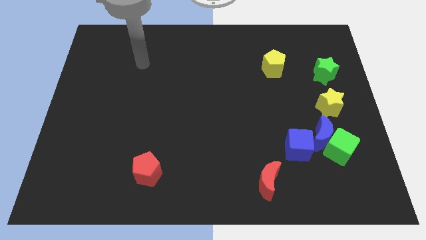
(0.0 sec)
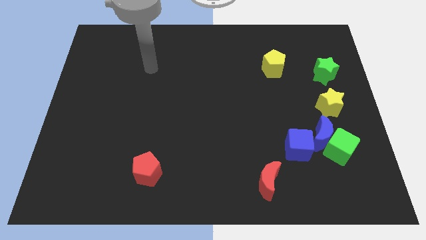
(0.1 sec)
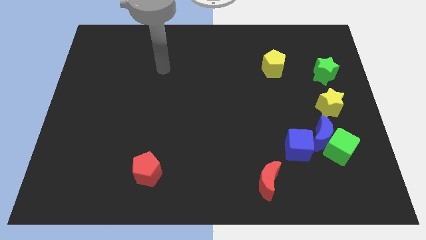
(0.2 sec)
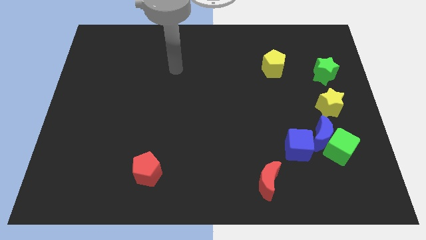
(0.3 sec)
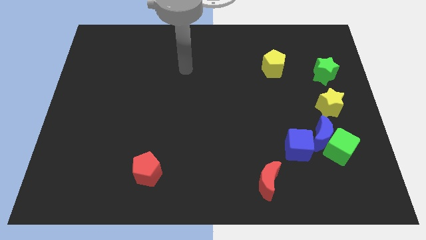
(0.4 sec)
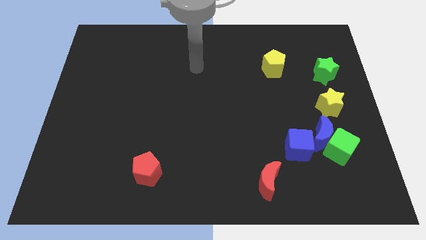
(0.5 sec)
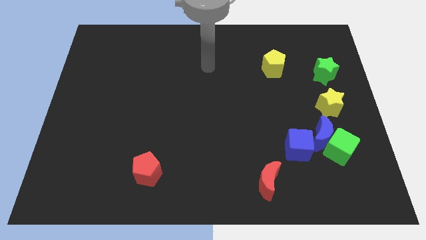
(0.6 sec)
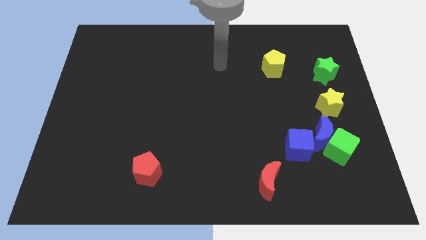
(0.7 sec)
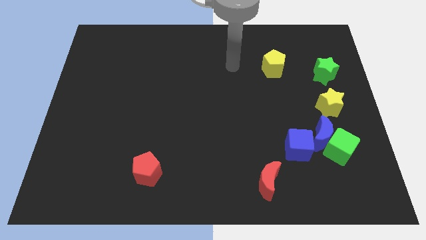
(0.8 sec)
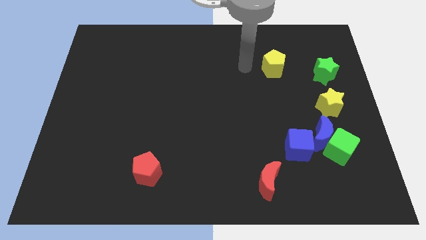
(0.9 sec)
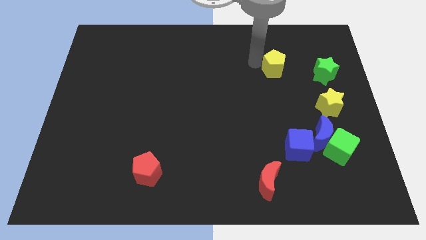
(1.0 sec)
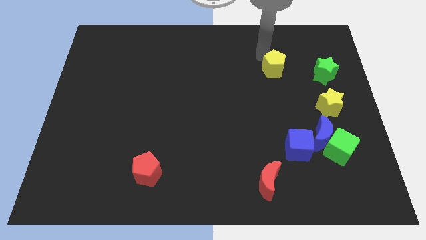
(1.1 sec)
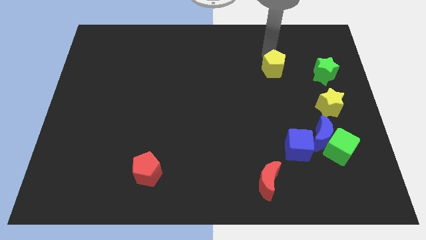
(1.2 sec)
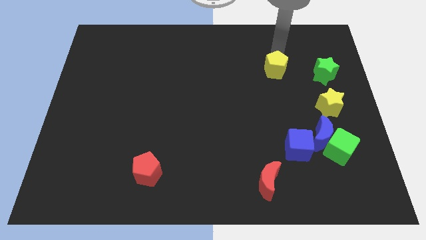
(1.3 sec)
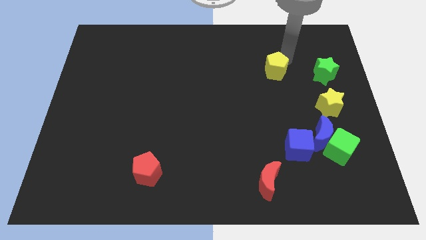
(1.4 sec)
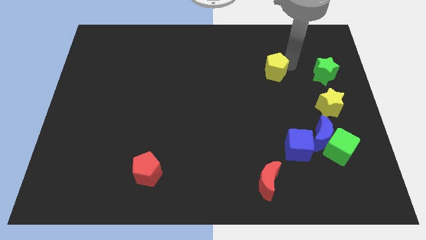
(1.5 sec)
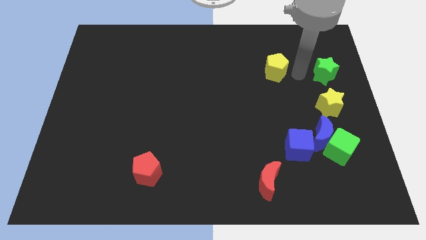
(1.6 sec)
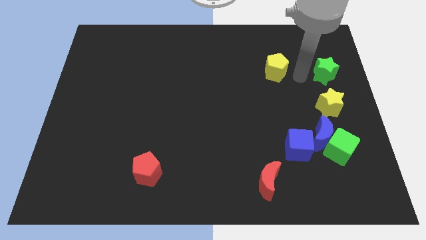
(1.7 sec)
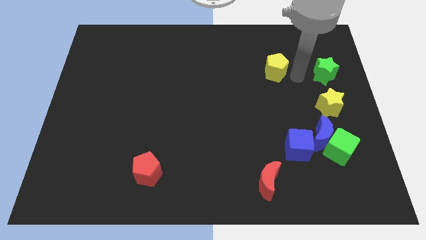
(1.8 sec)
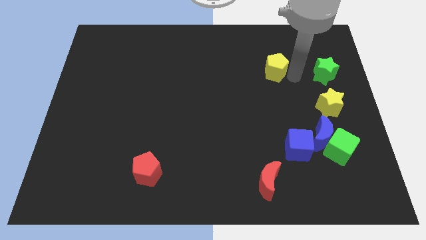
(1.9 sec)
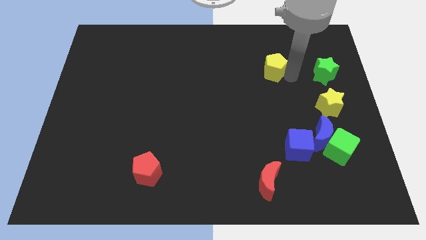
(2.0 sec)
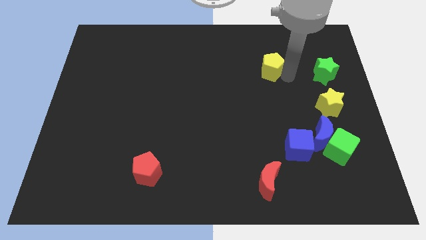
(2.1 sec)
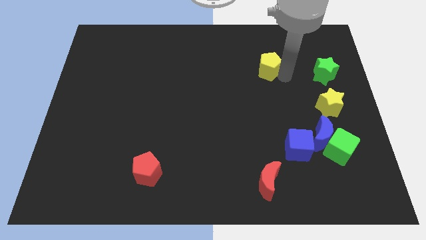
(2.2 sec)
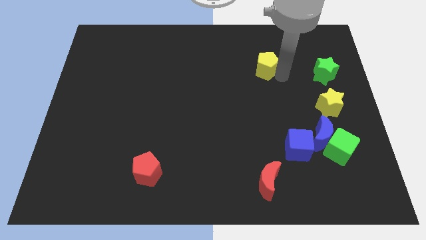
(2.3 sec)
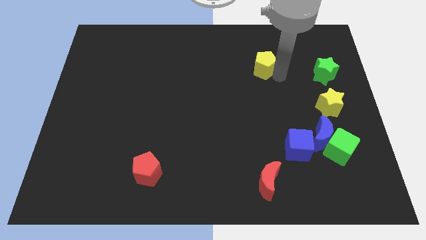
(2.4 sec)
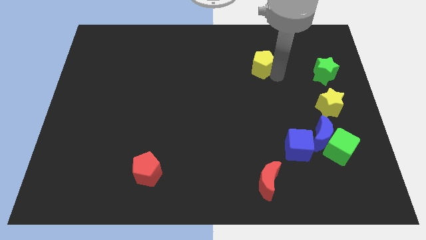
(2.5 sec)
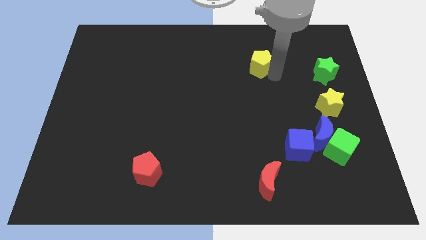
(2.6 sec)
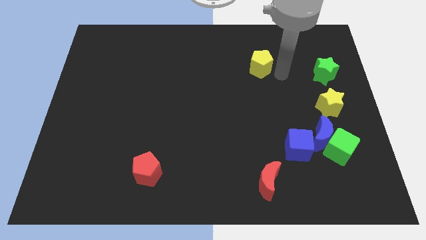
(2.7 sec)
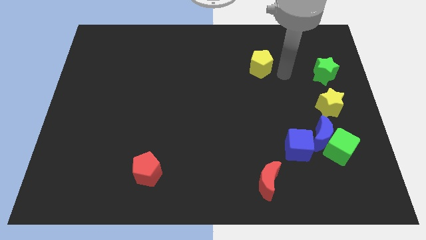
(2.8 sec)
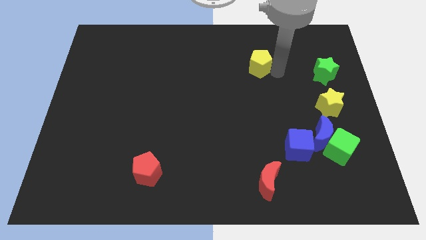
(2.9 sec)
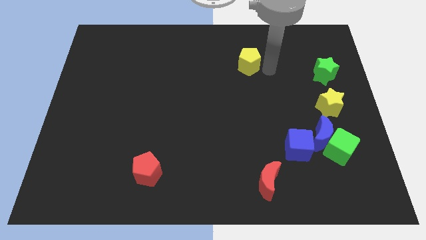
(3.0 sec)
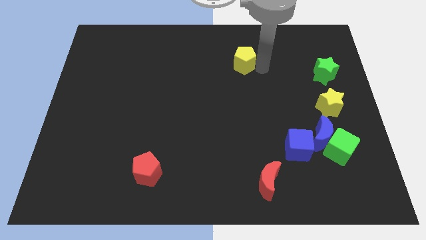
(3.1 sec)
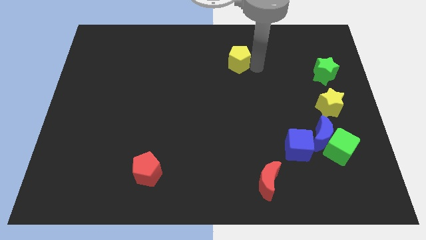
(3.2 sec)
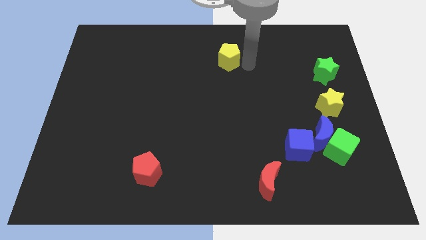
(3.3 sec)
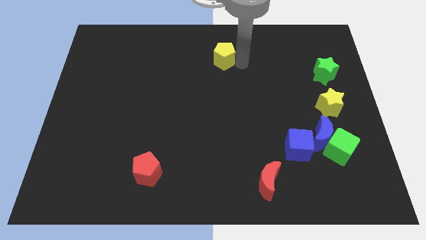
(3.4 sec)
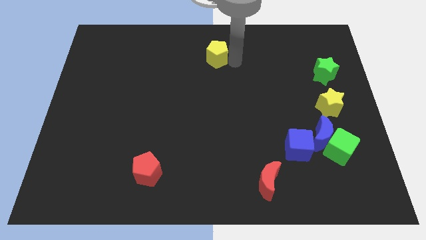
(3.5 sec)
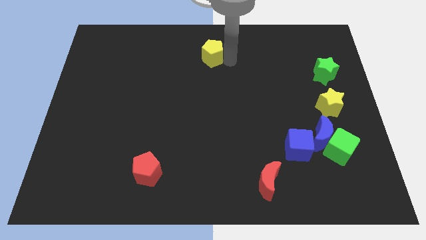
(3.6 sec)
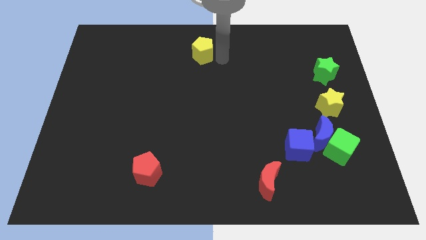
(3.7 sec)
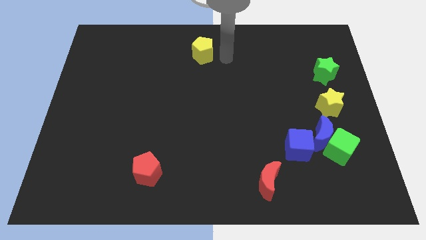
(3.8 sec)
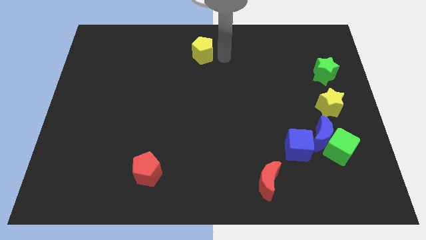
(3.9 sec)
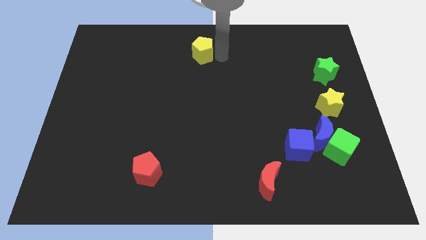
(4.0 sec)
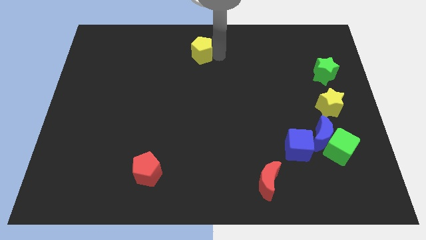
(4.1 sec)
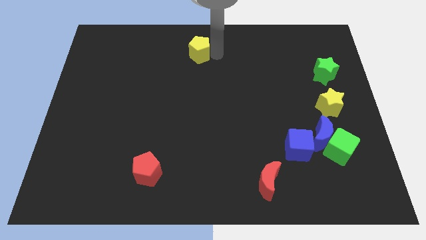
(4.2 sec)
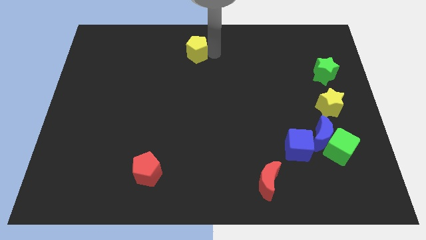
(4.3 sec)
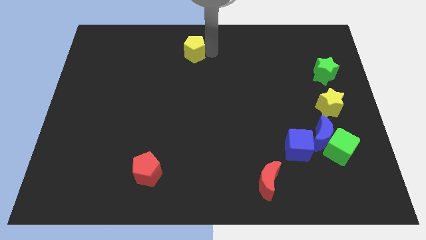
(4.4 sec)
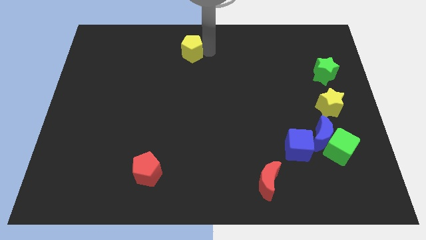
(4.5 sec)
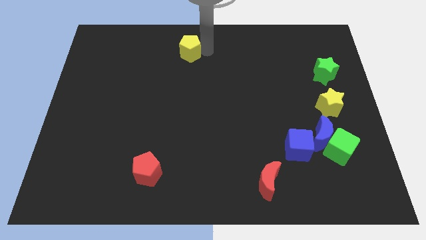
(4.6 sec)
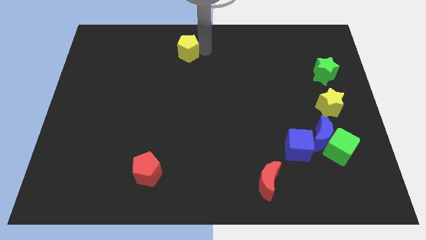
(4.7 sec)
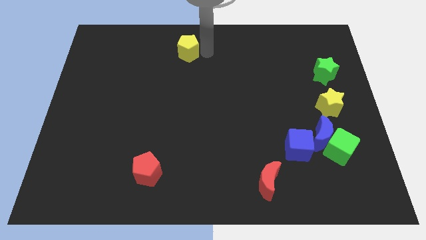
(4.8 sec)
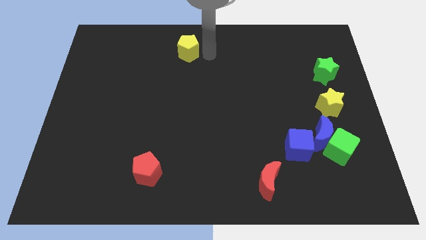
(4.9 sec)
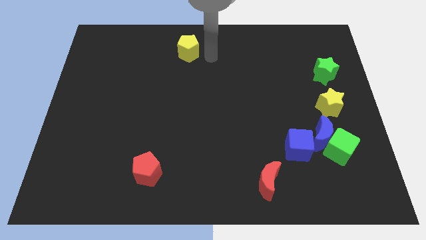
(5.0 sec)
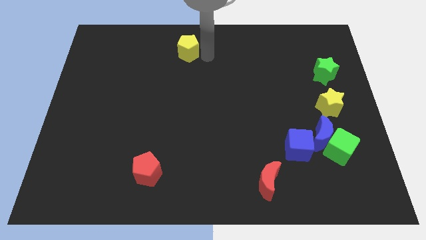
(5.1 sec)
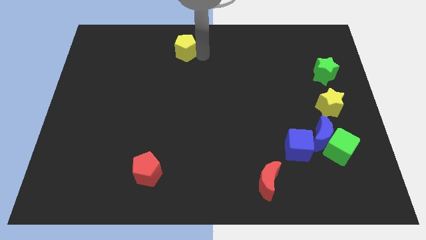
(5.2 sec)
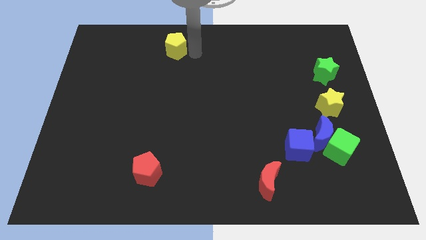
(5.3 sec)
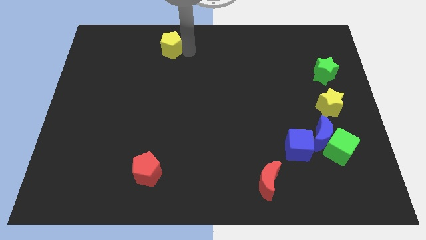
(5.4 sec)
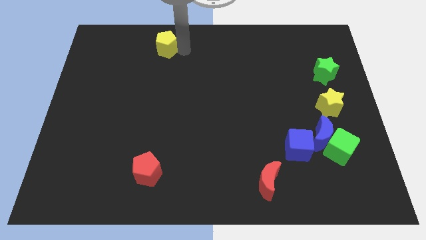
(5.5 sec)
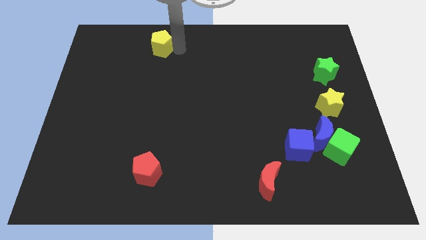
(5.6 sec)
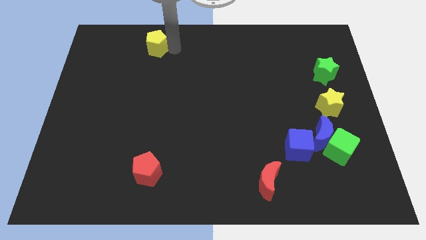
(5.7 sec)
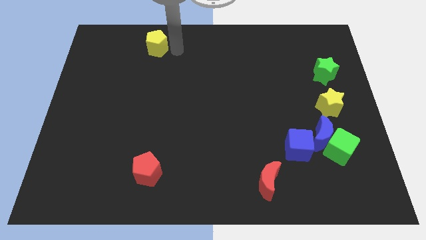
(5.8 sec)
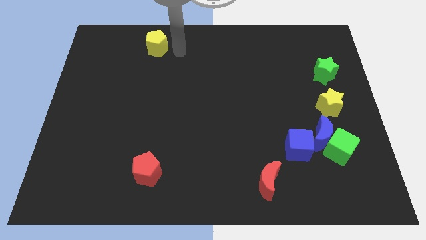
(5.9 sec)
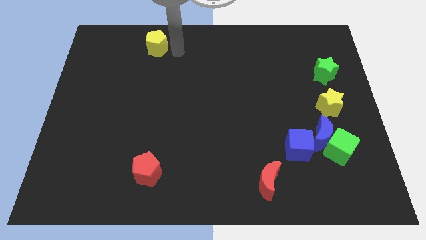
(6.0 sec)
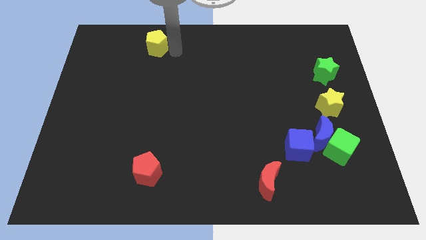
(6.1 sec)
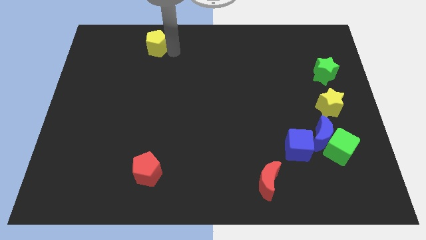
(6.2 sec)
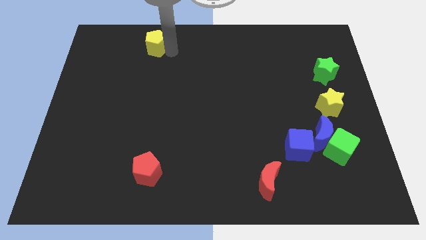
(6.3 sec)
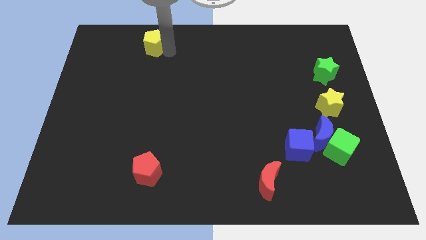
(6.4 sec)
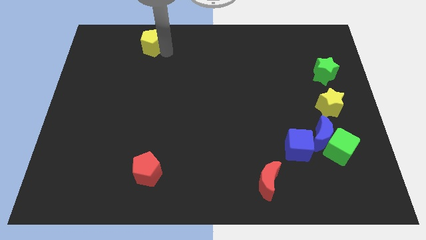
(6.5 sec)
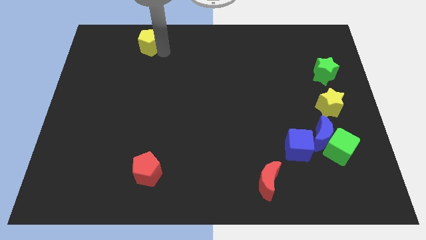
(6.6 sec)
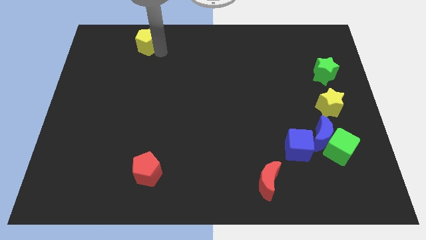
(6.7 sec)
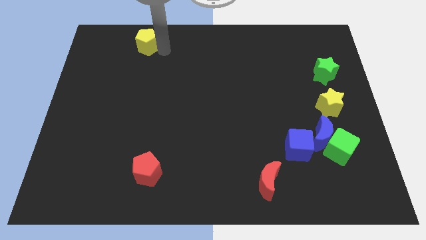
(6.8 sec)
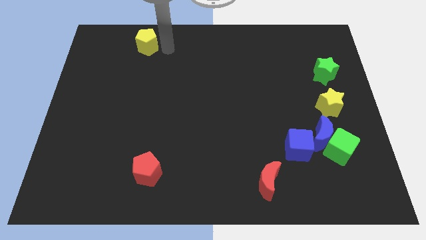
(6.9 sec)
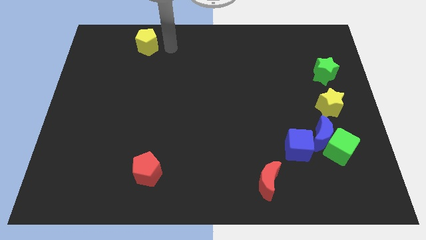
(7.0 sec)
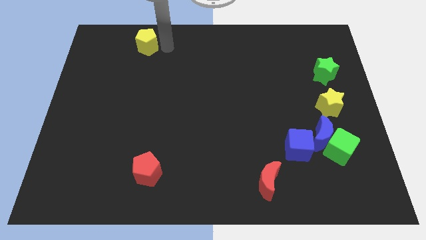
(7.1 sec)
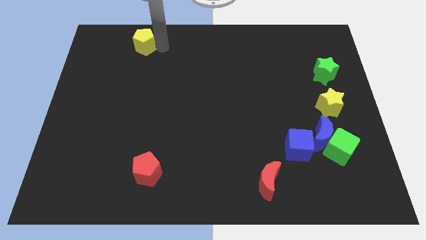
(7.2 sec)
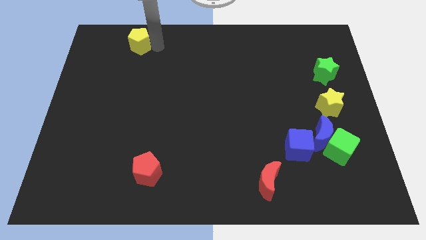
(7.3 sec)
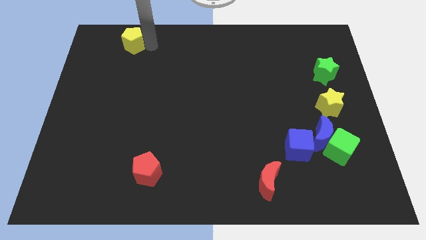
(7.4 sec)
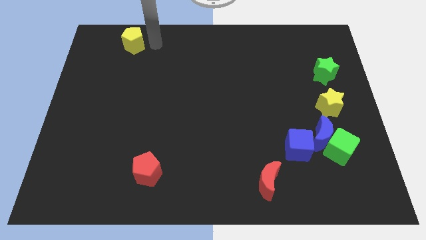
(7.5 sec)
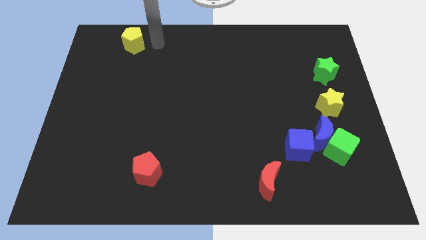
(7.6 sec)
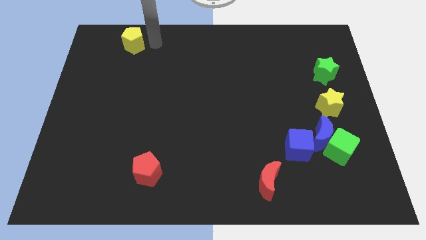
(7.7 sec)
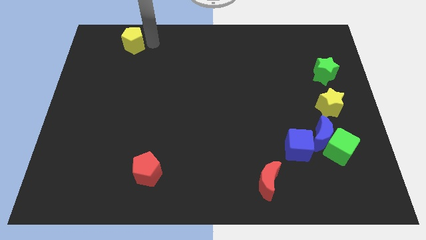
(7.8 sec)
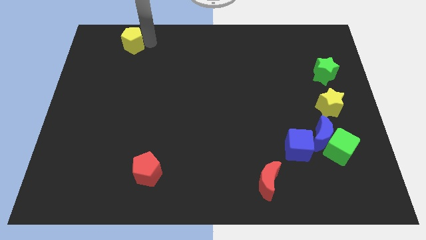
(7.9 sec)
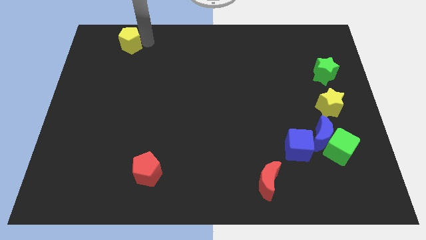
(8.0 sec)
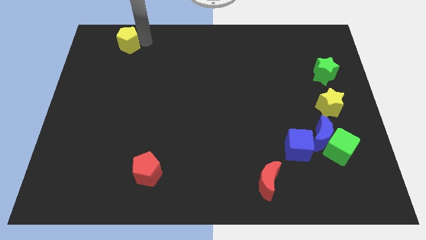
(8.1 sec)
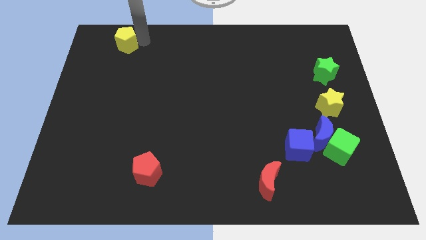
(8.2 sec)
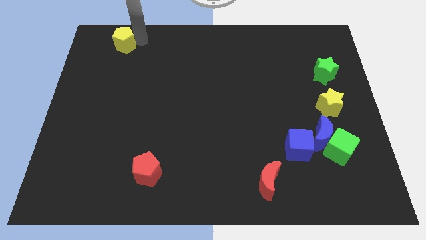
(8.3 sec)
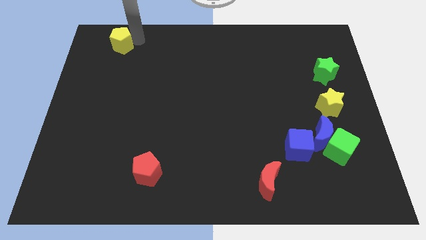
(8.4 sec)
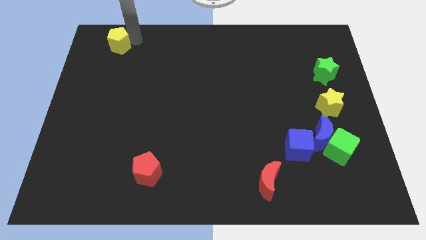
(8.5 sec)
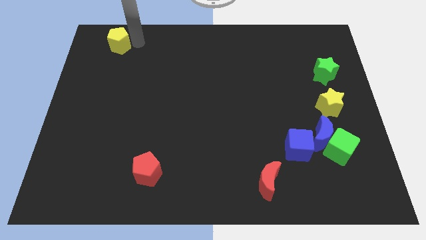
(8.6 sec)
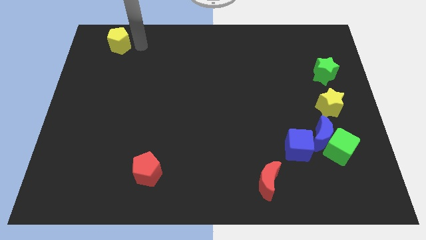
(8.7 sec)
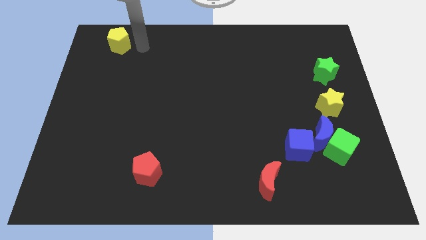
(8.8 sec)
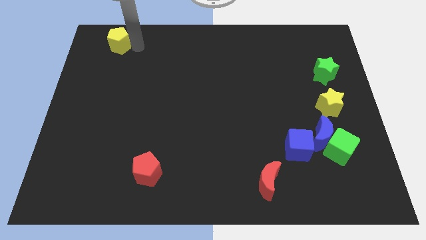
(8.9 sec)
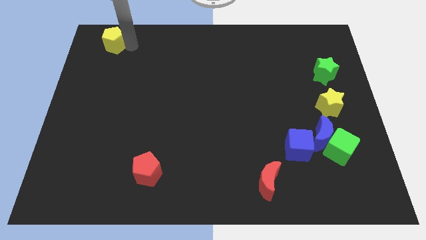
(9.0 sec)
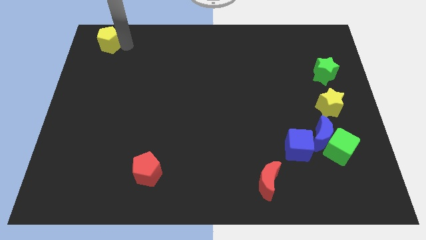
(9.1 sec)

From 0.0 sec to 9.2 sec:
move the yellow pentagon to the top left corner
